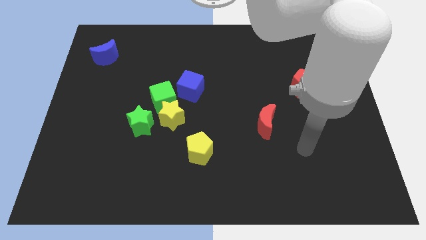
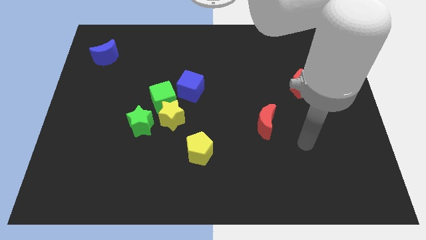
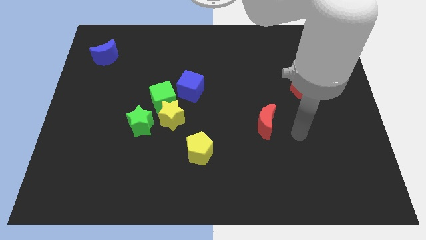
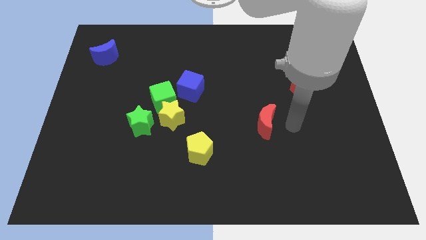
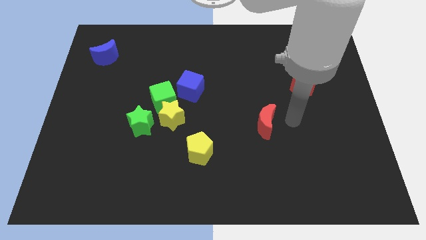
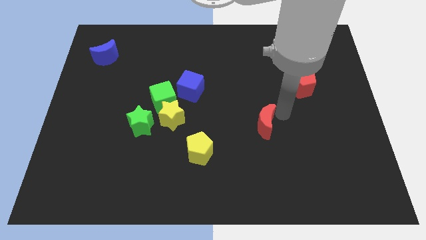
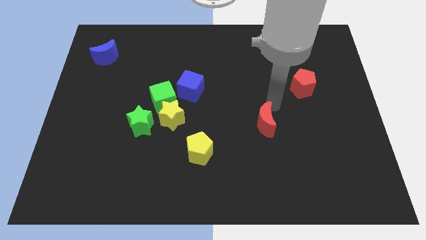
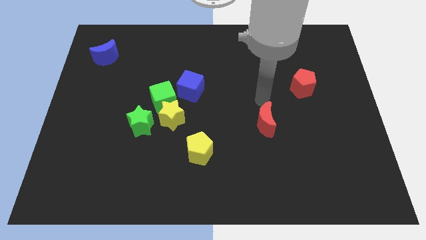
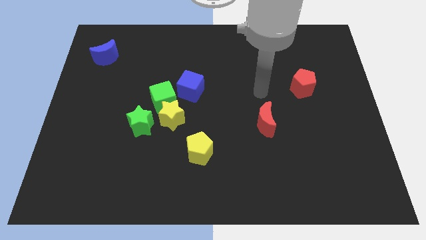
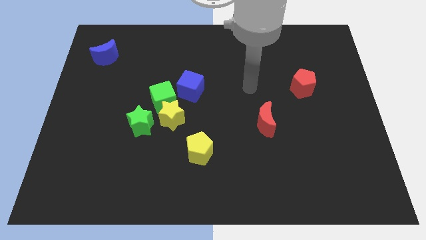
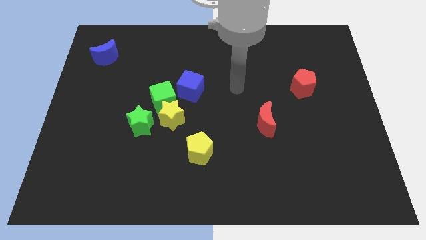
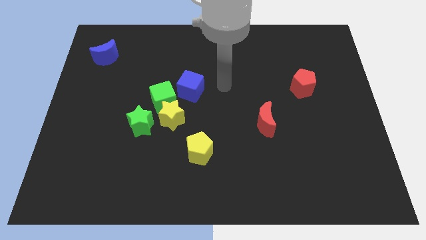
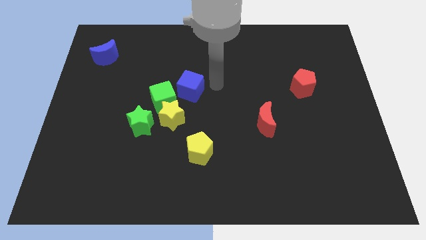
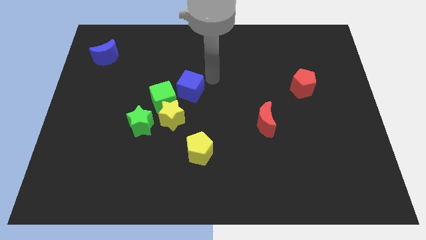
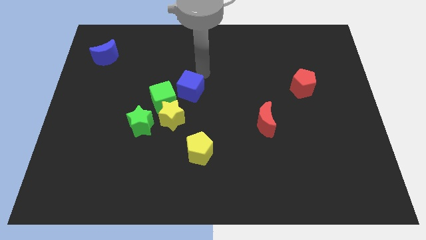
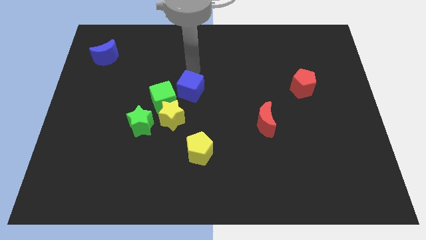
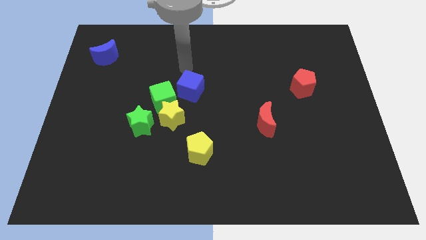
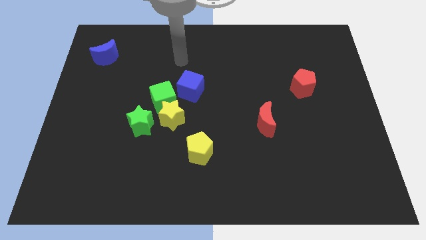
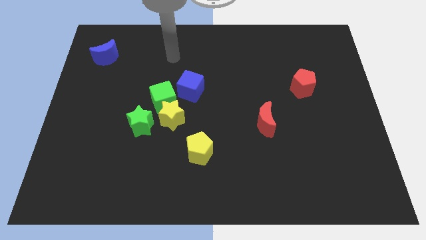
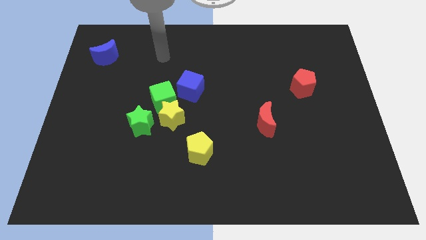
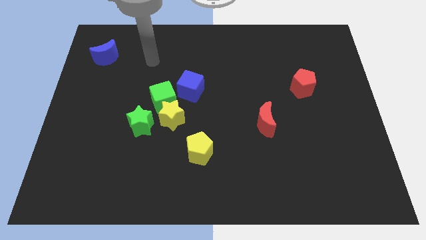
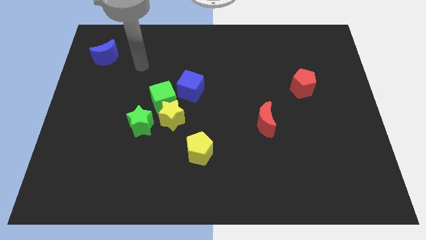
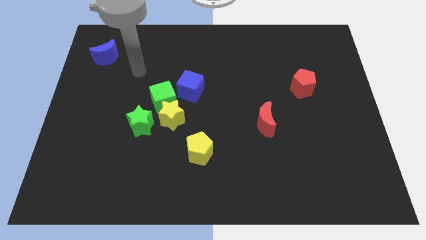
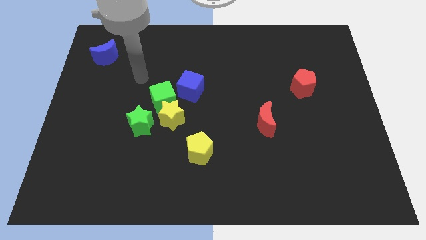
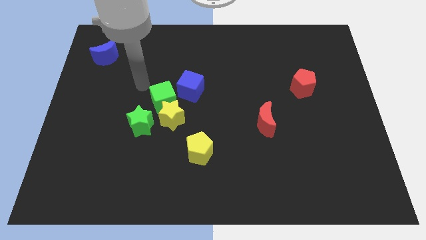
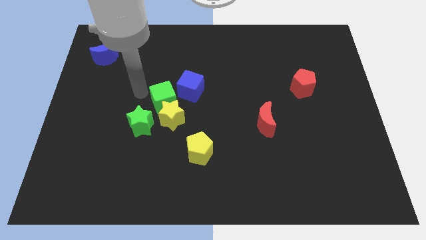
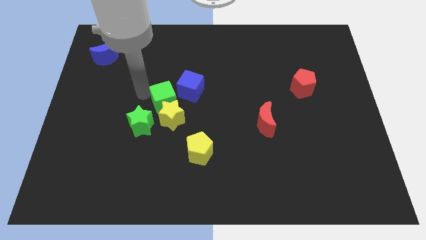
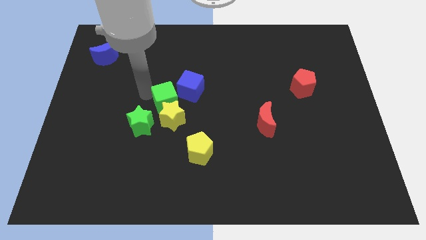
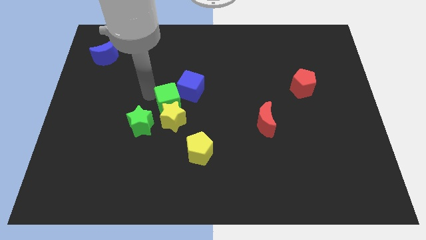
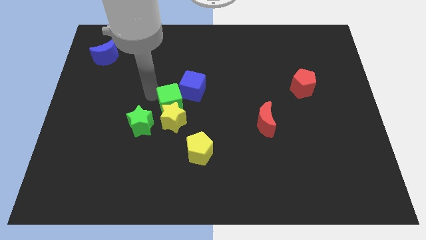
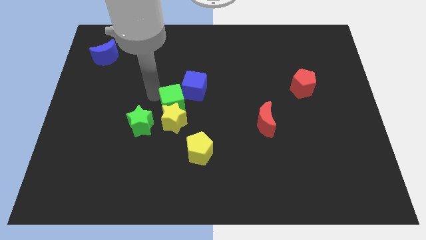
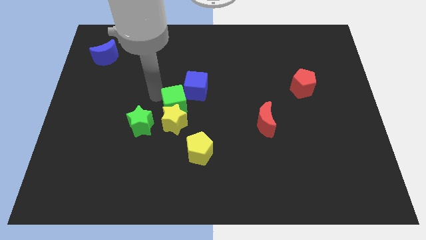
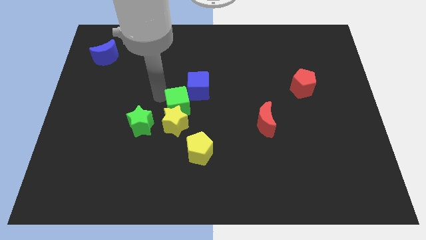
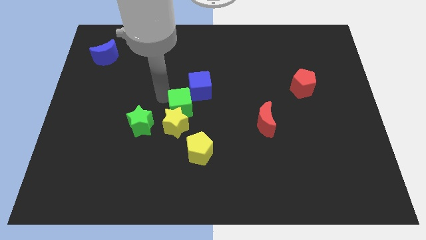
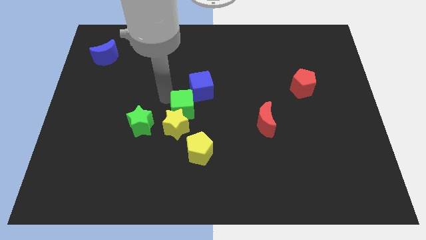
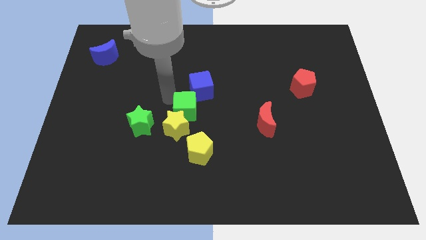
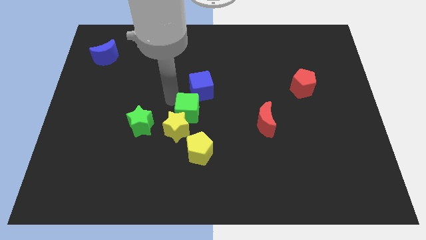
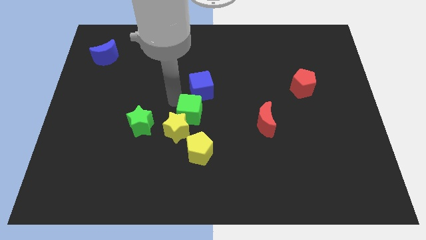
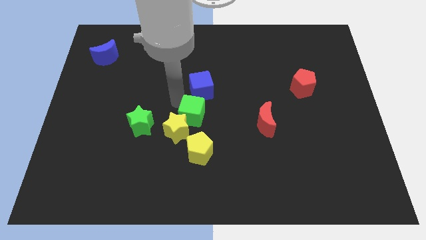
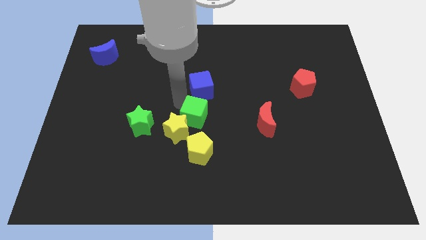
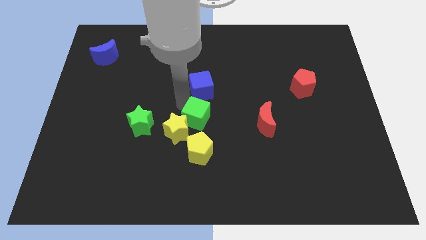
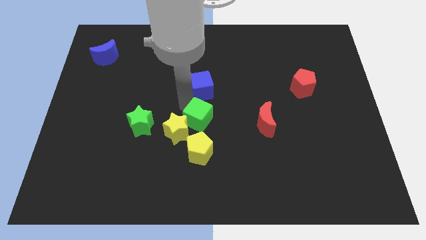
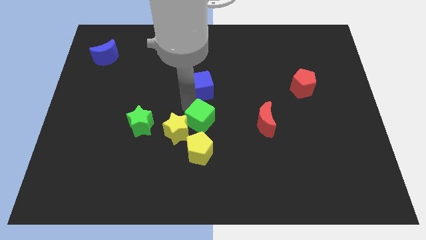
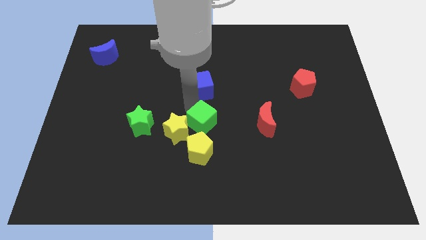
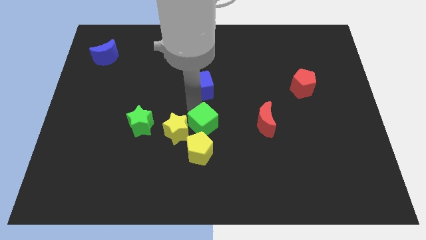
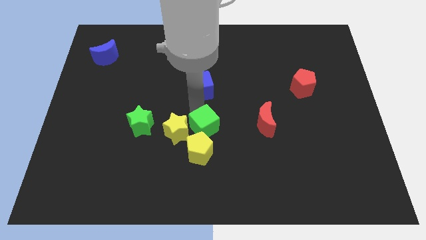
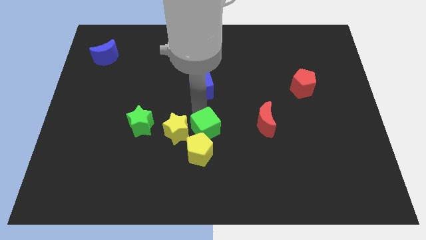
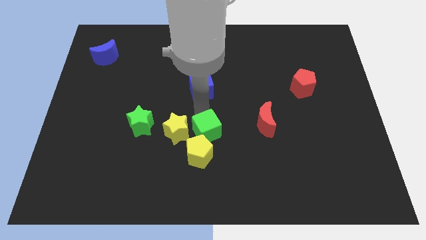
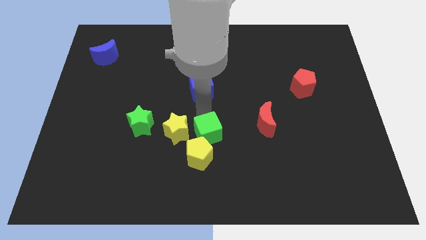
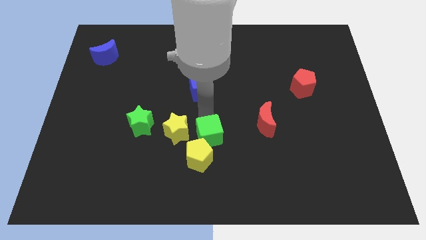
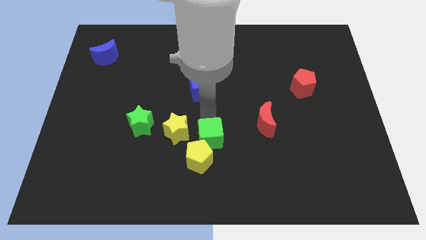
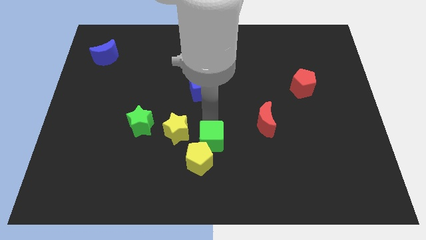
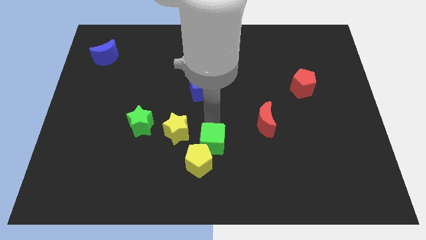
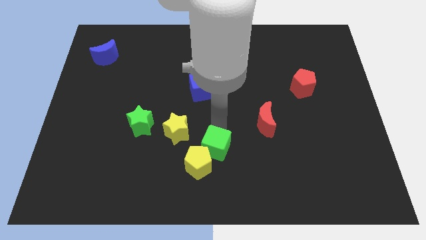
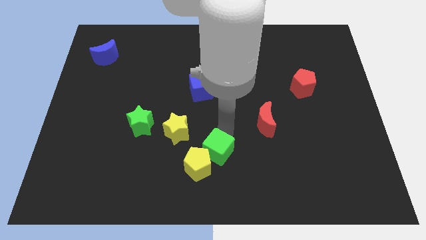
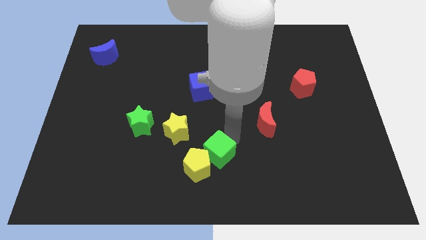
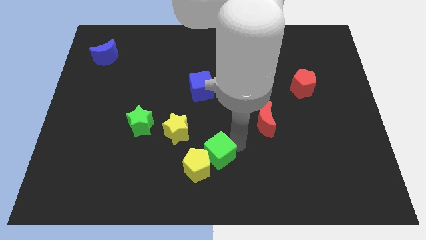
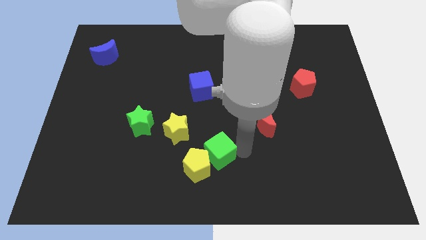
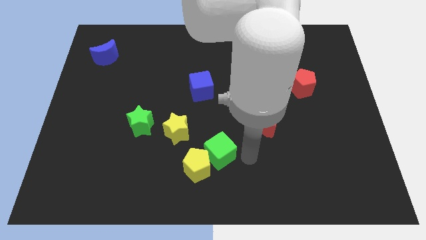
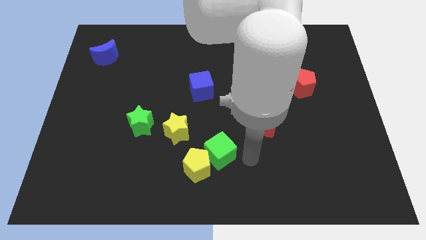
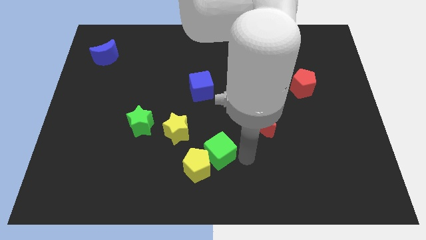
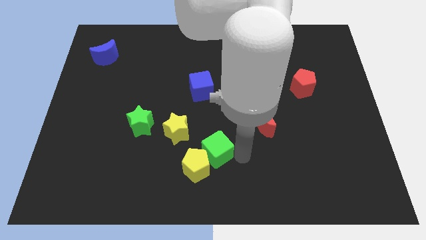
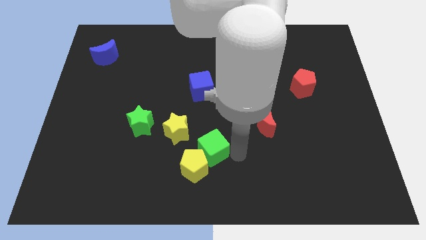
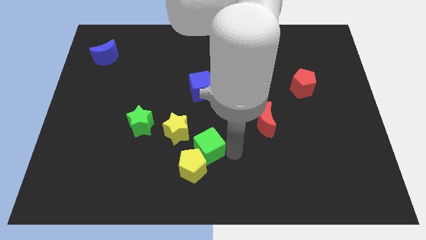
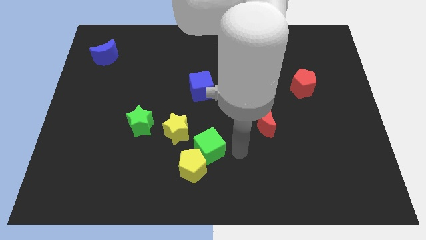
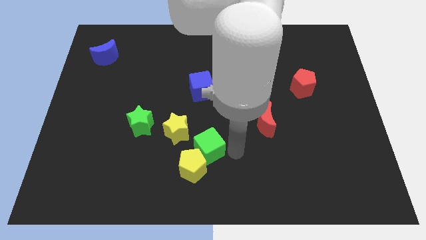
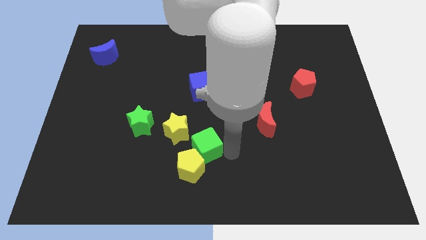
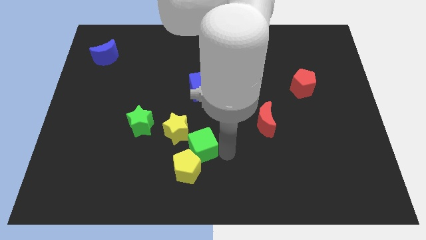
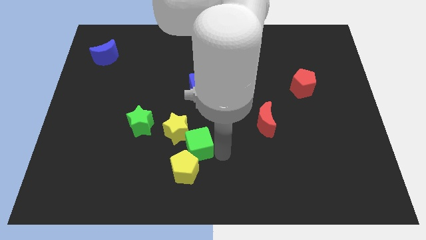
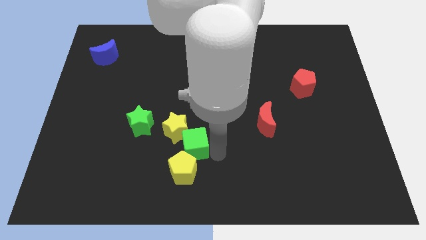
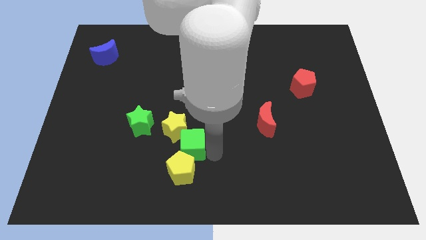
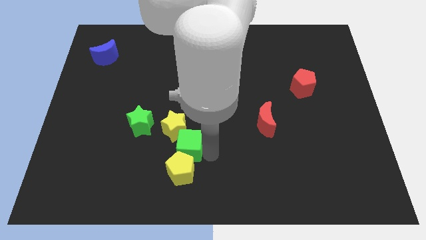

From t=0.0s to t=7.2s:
slide the green cube to the top left of the yellow pentagon

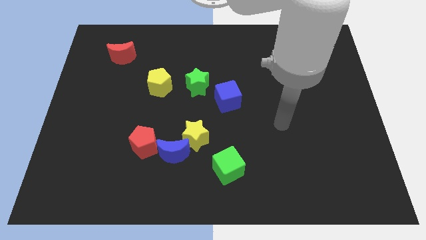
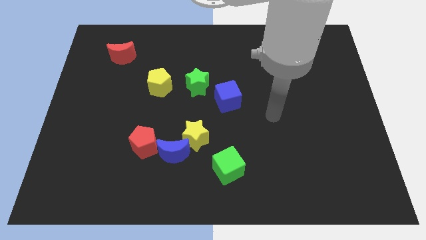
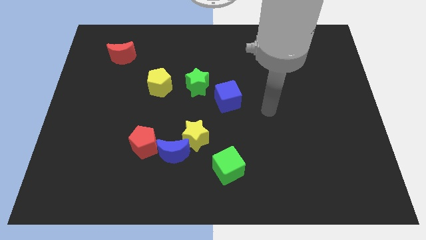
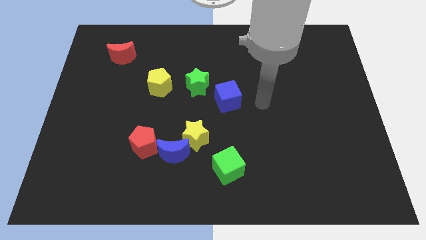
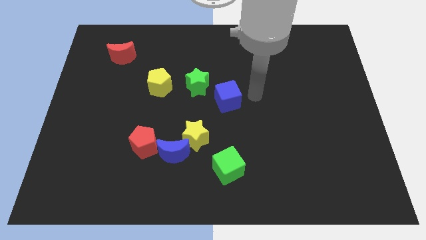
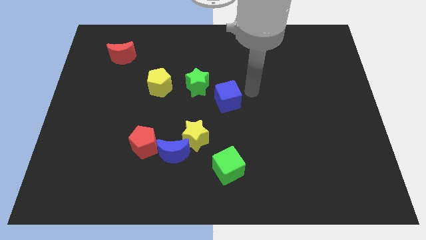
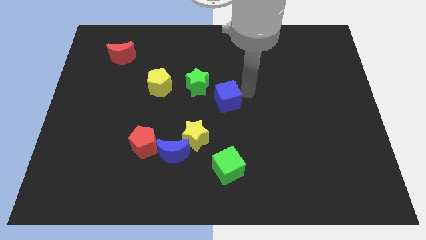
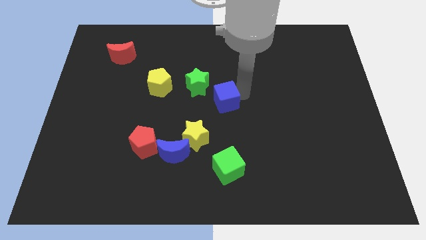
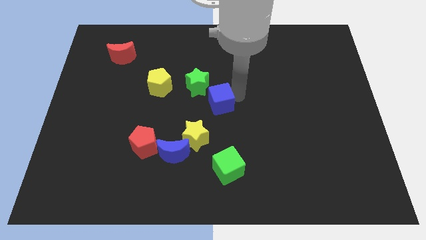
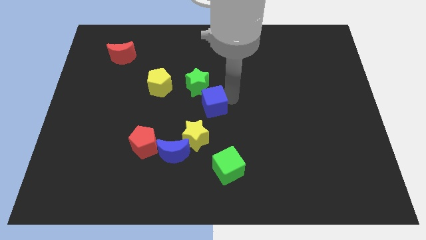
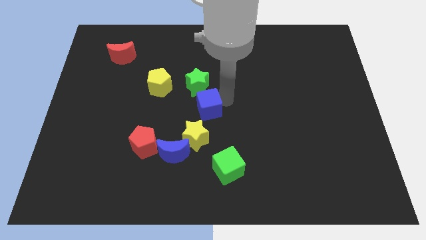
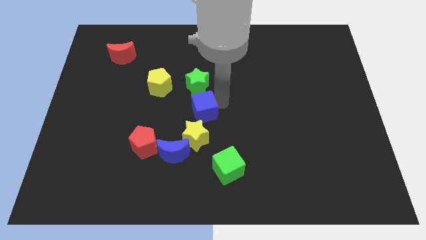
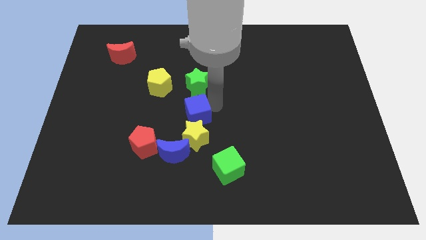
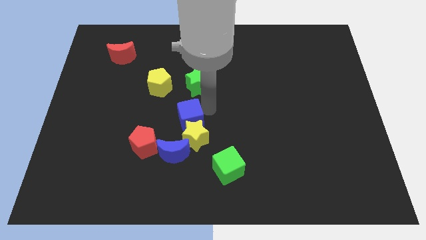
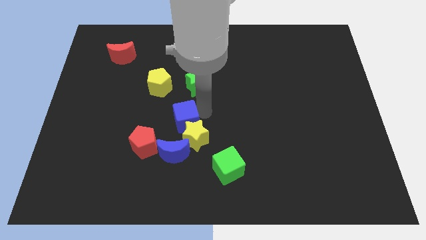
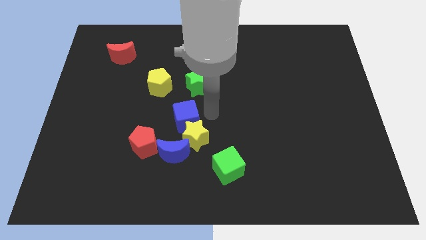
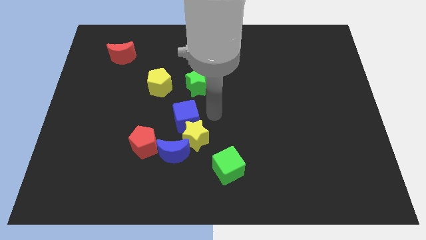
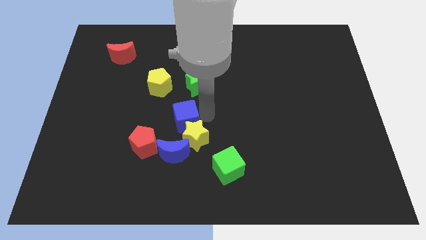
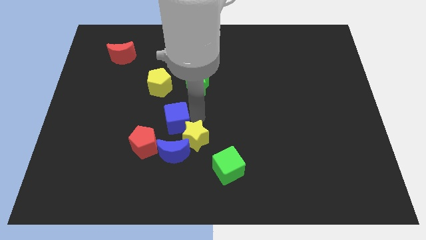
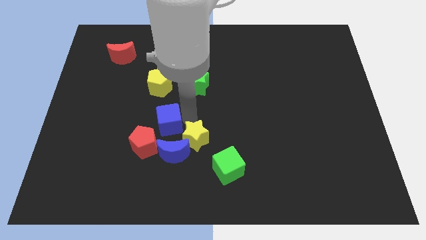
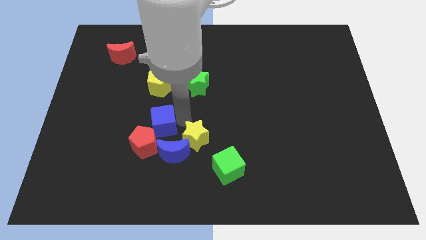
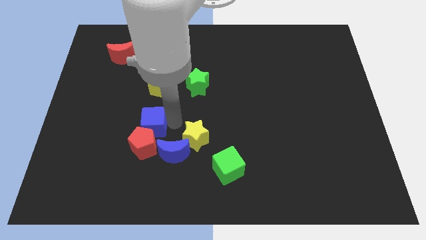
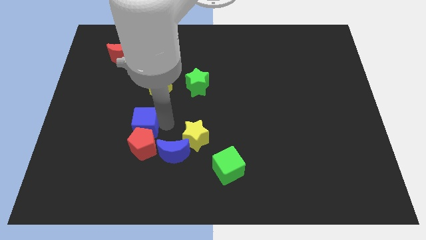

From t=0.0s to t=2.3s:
push the blue cube to the top left of the red pentagon
